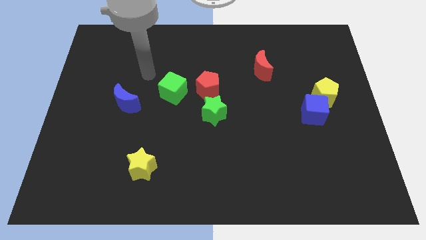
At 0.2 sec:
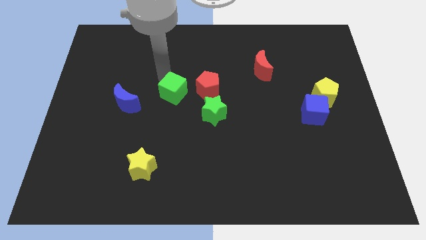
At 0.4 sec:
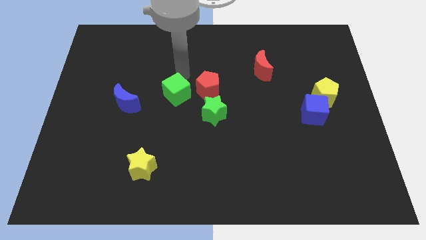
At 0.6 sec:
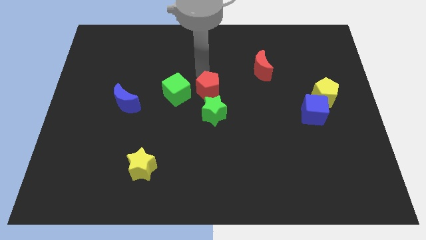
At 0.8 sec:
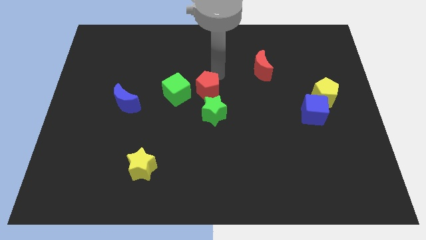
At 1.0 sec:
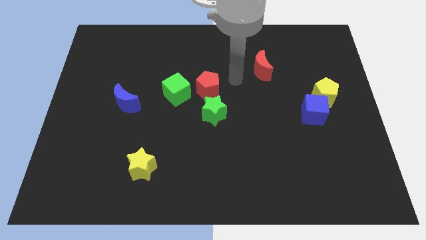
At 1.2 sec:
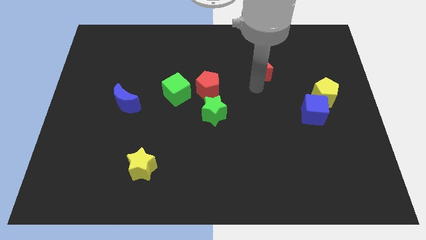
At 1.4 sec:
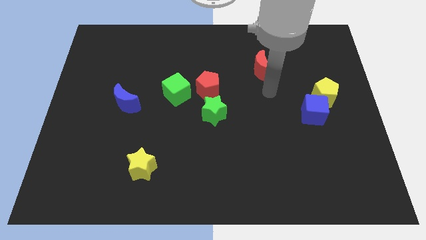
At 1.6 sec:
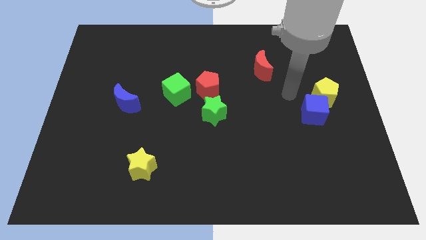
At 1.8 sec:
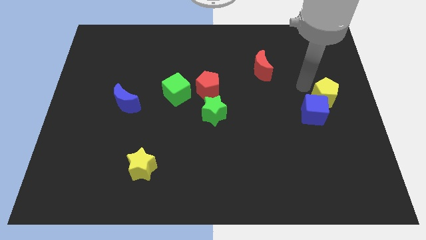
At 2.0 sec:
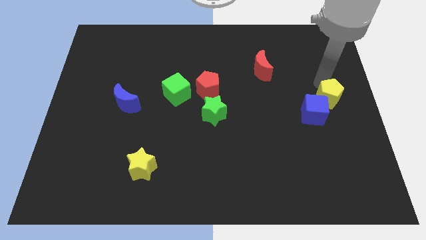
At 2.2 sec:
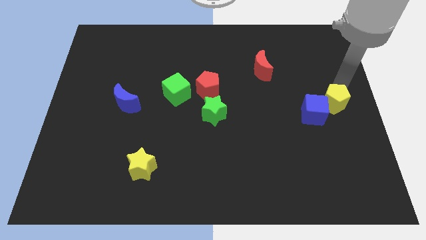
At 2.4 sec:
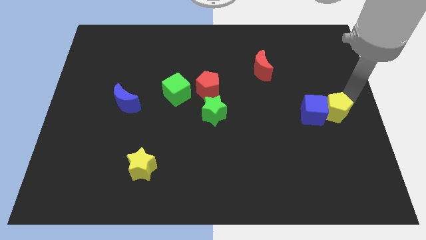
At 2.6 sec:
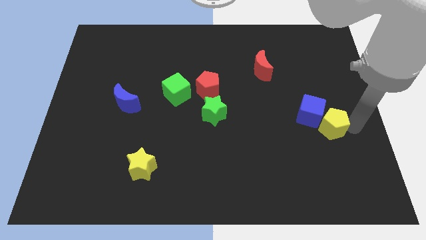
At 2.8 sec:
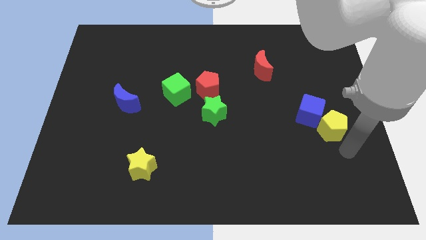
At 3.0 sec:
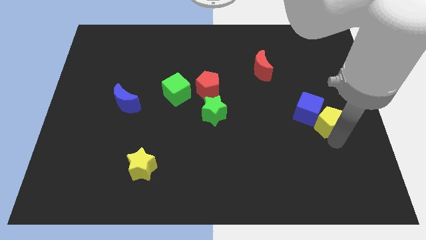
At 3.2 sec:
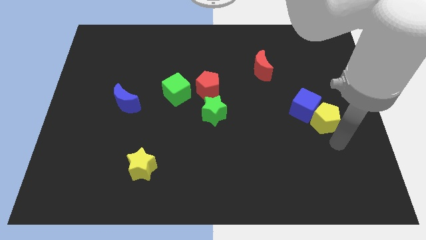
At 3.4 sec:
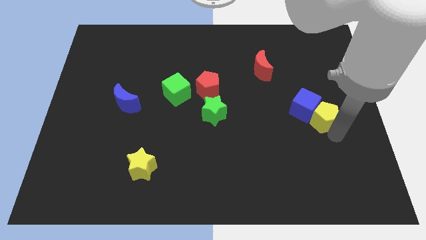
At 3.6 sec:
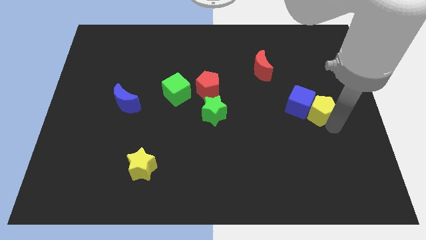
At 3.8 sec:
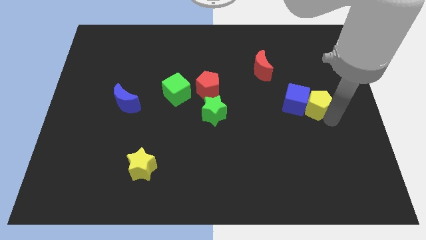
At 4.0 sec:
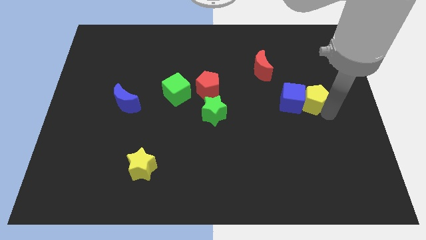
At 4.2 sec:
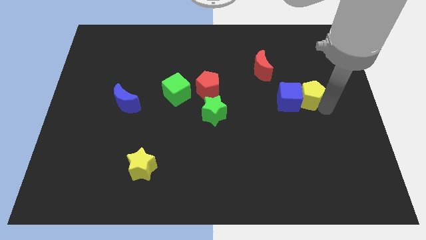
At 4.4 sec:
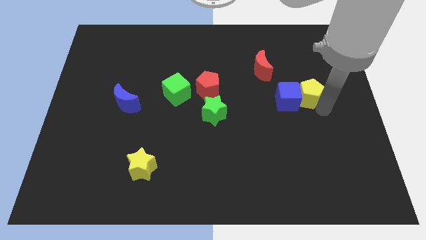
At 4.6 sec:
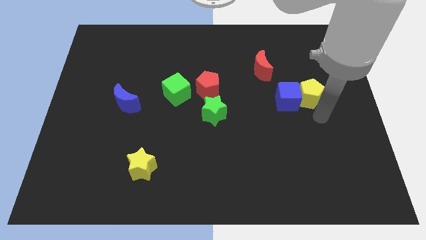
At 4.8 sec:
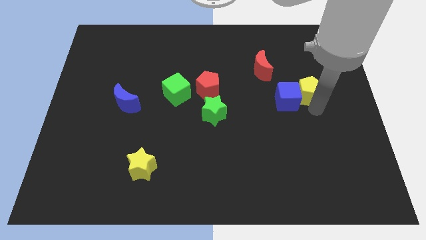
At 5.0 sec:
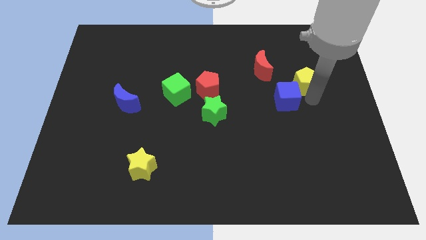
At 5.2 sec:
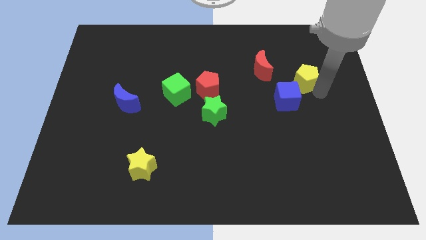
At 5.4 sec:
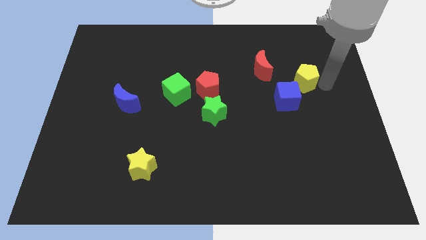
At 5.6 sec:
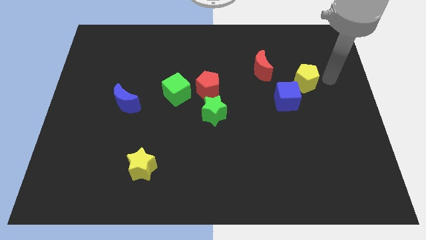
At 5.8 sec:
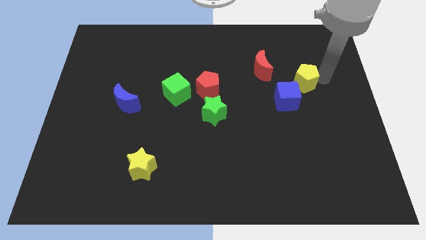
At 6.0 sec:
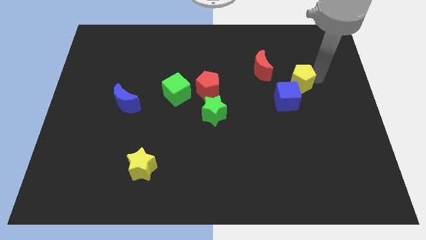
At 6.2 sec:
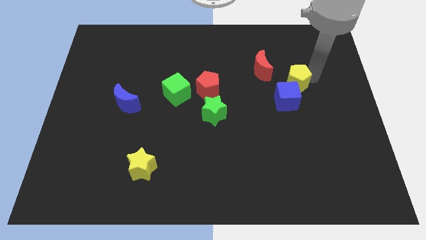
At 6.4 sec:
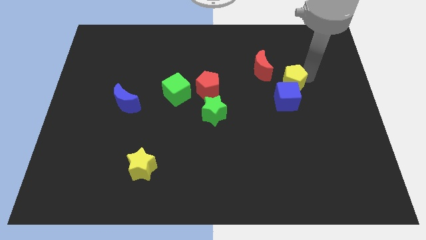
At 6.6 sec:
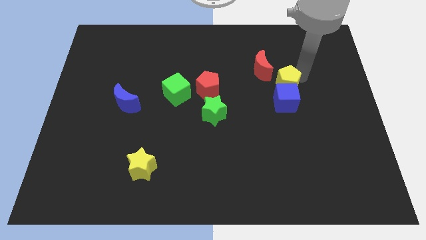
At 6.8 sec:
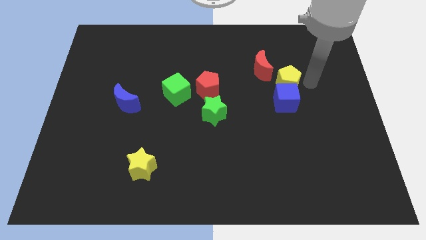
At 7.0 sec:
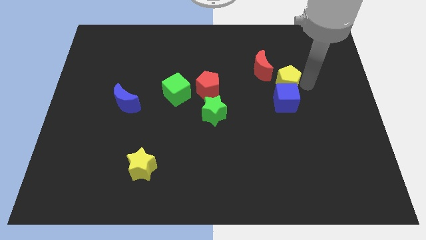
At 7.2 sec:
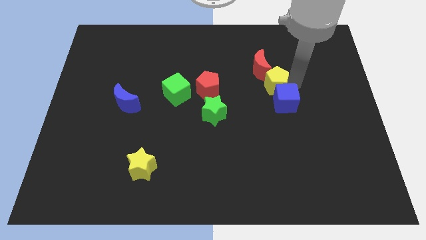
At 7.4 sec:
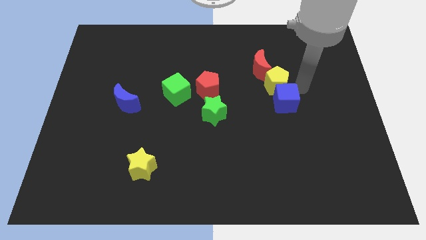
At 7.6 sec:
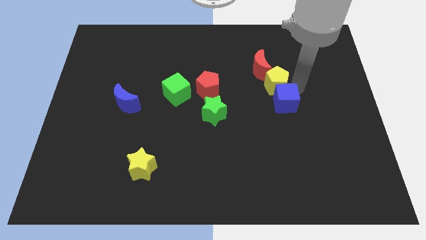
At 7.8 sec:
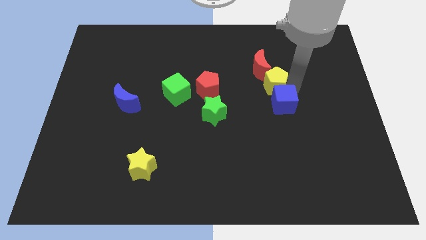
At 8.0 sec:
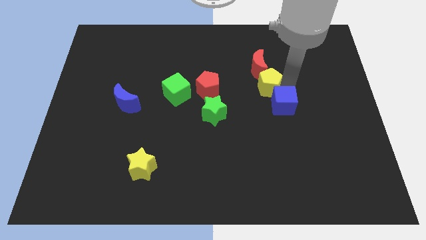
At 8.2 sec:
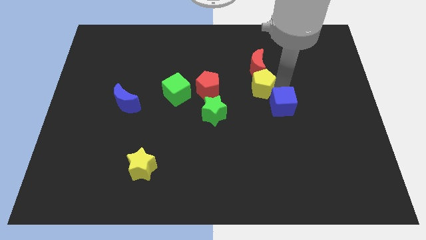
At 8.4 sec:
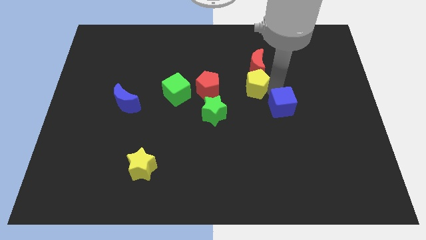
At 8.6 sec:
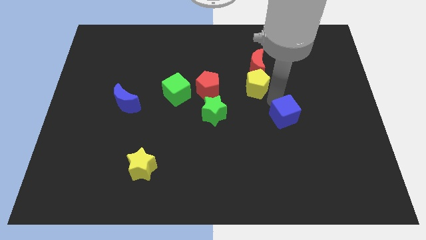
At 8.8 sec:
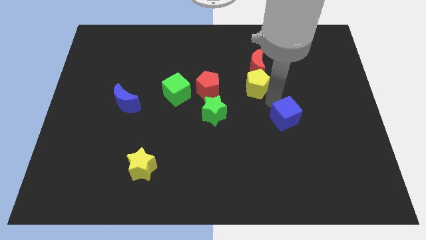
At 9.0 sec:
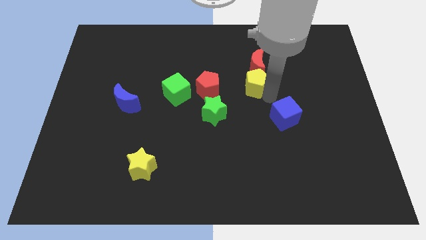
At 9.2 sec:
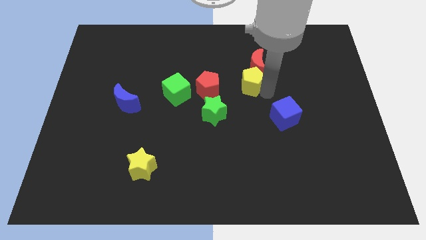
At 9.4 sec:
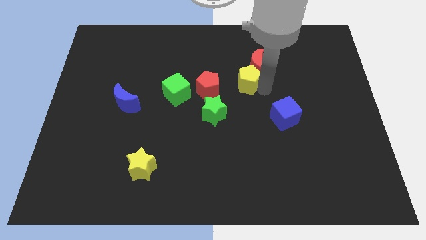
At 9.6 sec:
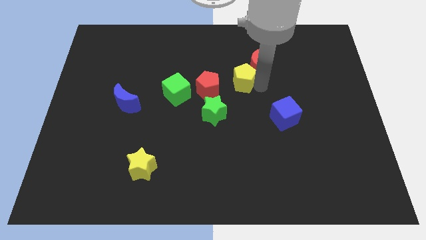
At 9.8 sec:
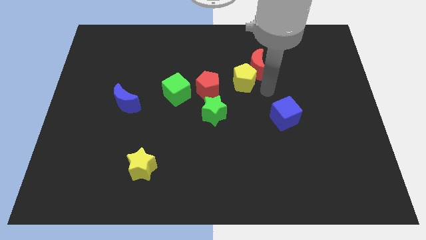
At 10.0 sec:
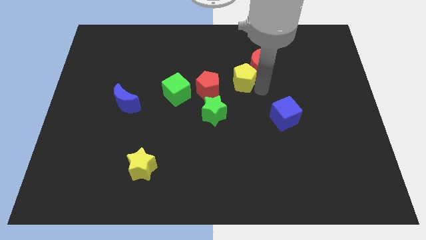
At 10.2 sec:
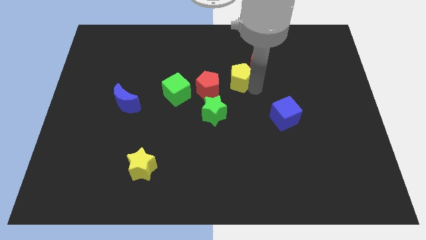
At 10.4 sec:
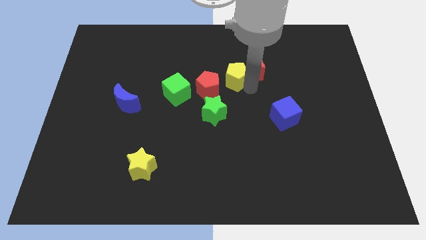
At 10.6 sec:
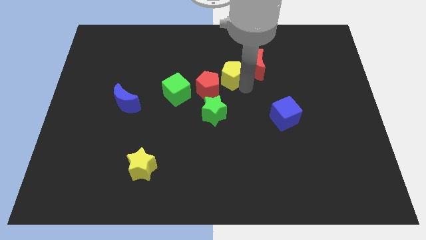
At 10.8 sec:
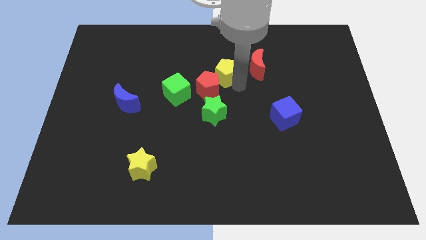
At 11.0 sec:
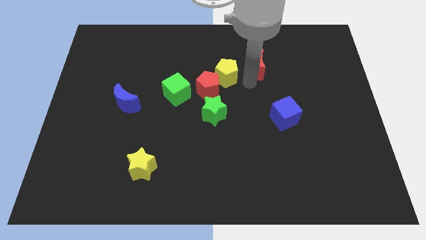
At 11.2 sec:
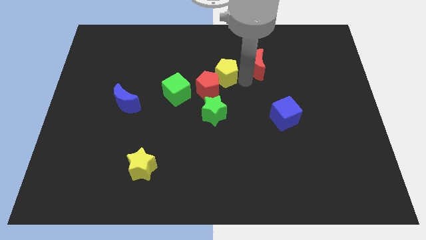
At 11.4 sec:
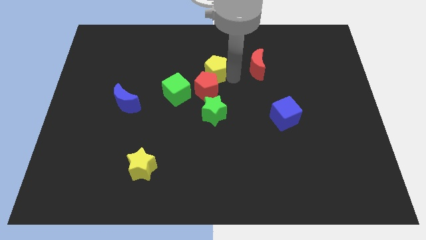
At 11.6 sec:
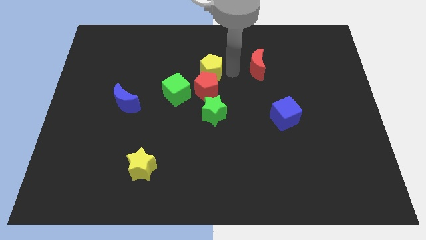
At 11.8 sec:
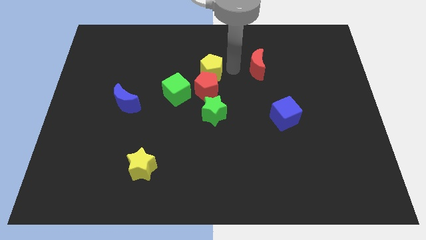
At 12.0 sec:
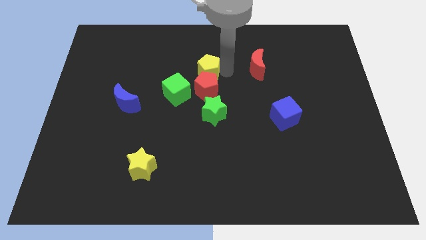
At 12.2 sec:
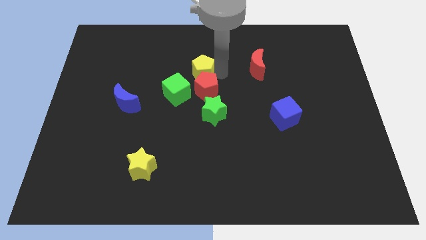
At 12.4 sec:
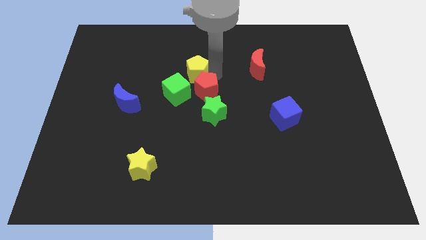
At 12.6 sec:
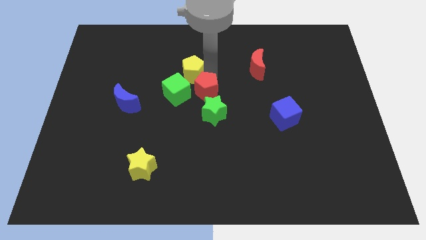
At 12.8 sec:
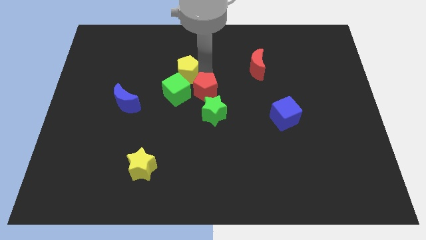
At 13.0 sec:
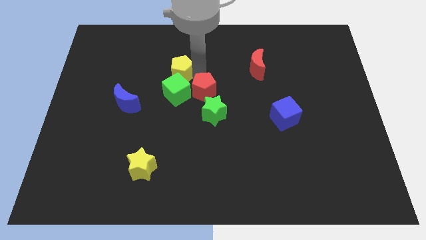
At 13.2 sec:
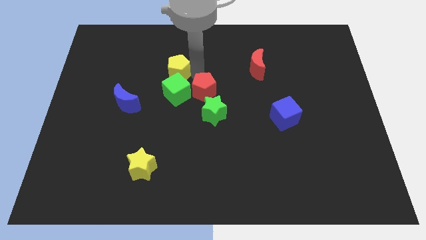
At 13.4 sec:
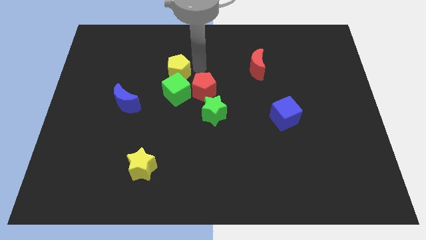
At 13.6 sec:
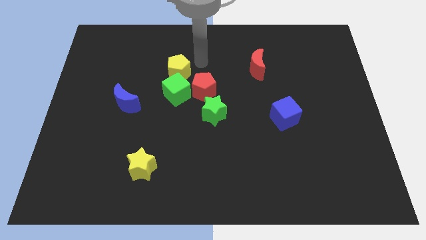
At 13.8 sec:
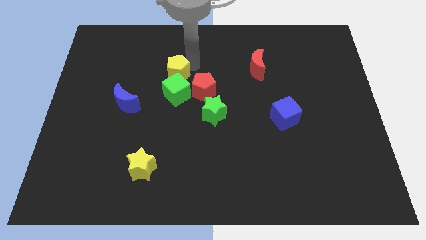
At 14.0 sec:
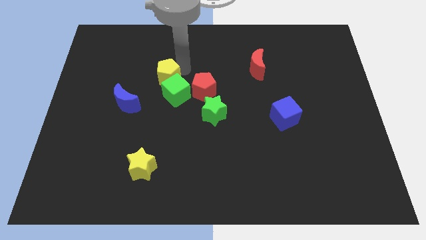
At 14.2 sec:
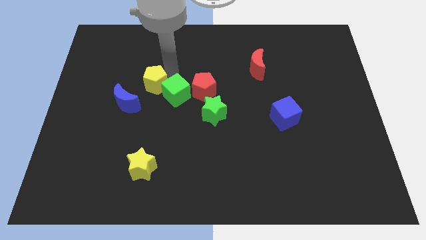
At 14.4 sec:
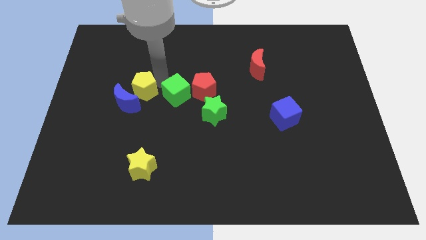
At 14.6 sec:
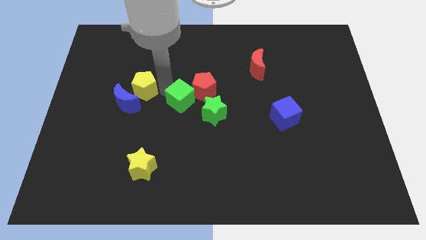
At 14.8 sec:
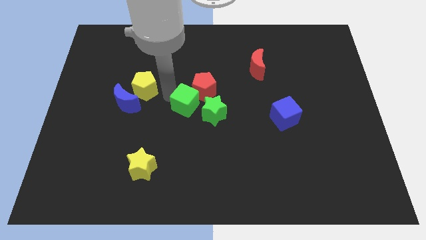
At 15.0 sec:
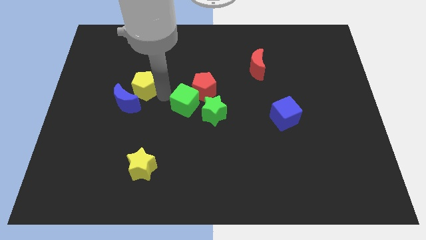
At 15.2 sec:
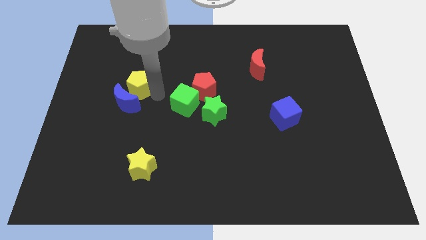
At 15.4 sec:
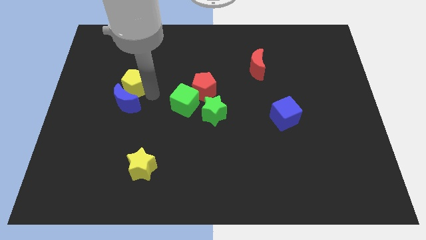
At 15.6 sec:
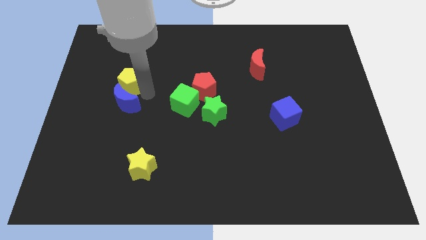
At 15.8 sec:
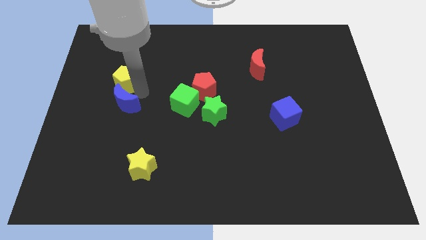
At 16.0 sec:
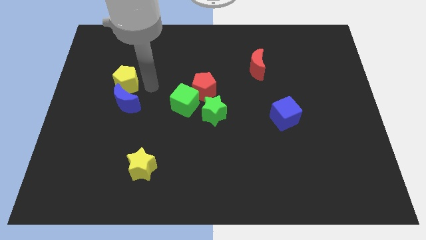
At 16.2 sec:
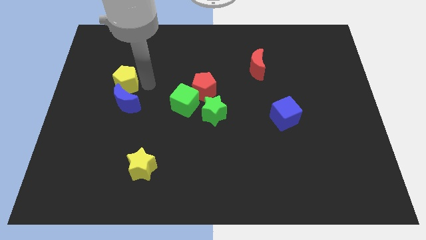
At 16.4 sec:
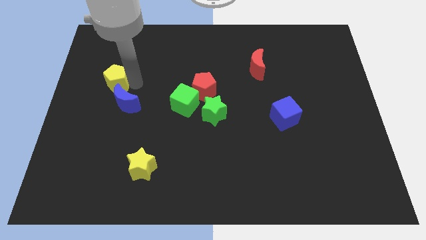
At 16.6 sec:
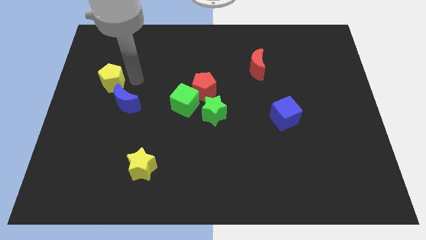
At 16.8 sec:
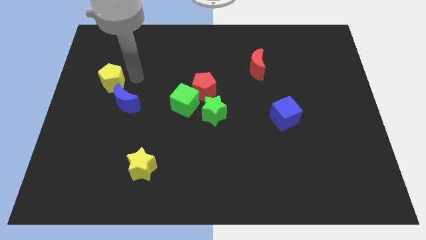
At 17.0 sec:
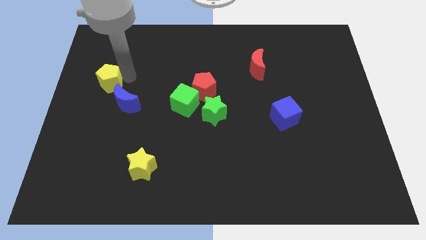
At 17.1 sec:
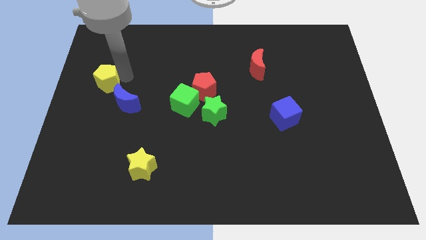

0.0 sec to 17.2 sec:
slide the yellow pentagon to the left side
